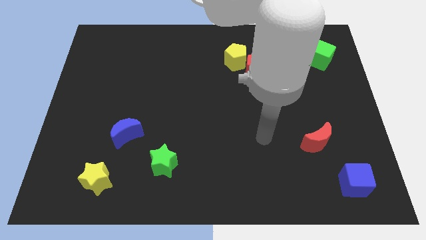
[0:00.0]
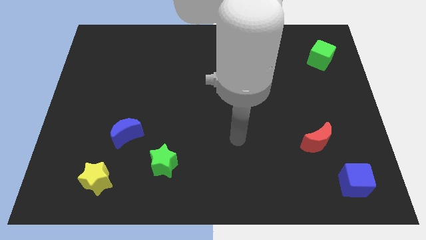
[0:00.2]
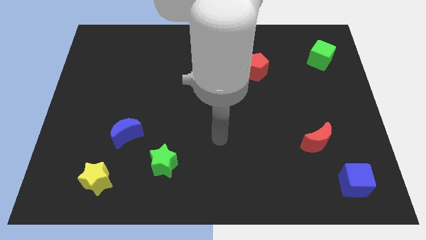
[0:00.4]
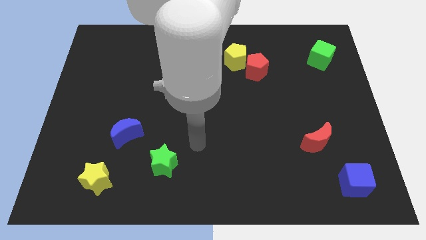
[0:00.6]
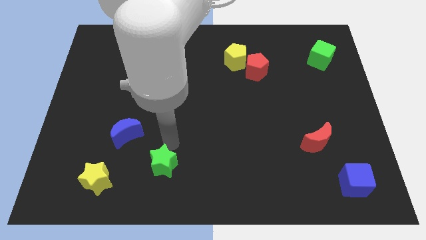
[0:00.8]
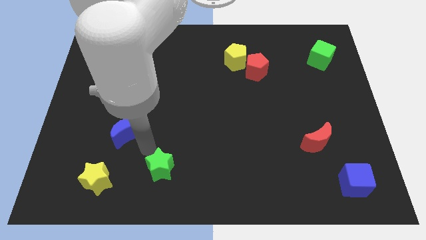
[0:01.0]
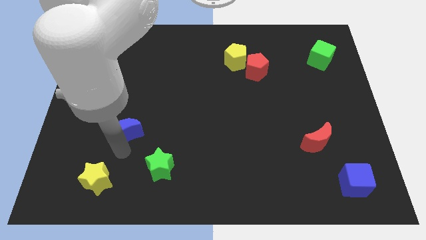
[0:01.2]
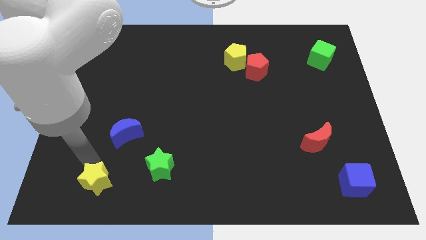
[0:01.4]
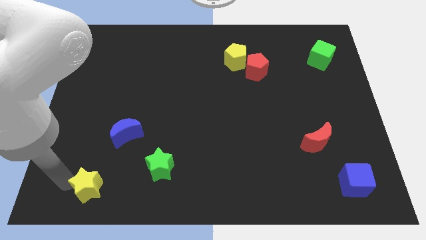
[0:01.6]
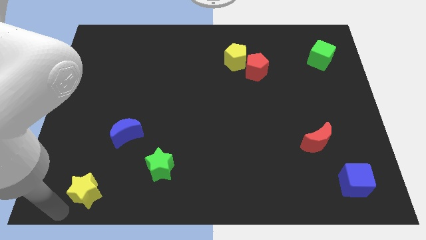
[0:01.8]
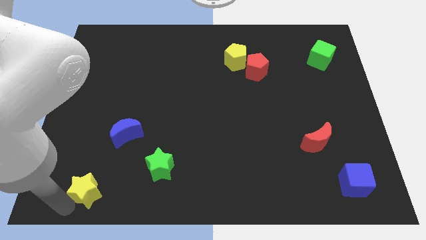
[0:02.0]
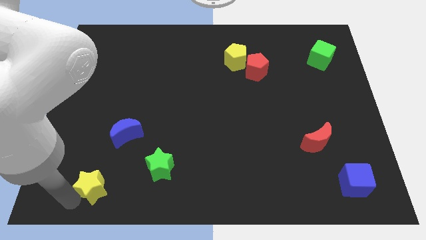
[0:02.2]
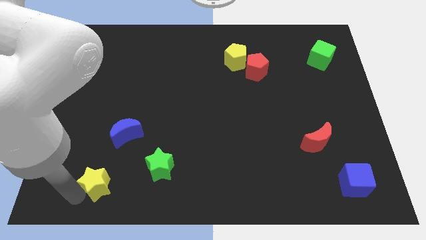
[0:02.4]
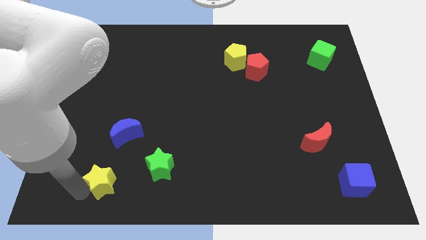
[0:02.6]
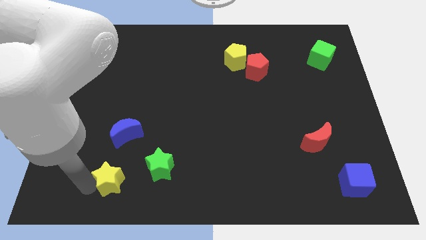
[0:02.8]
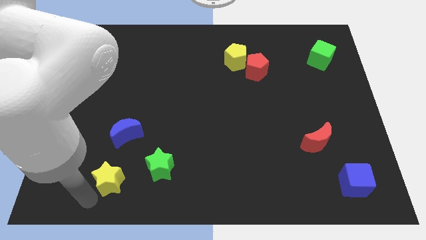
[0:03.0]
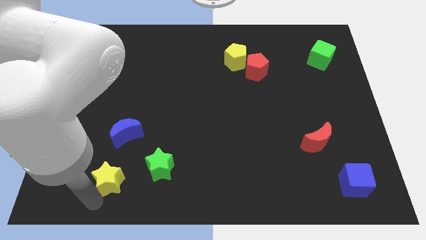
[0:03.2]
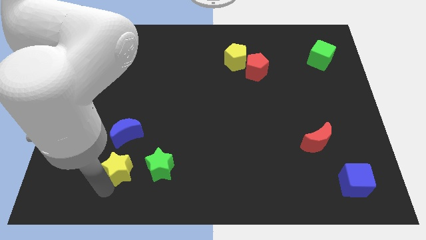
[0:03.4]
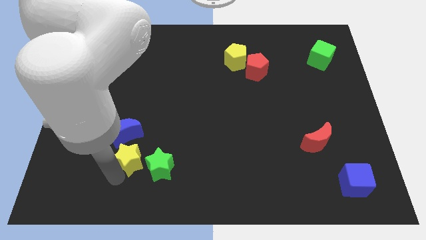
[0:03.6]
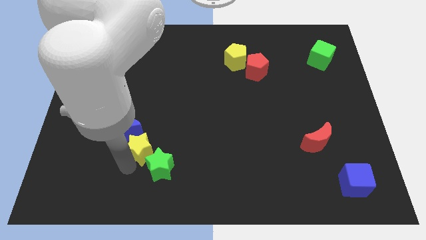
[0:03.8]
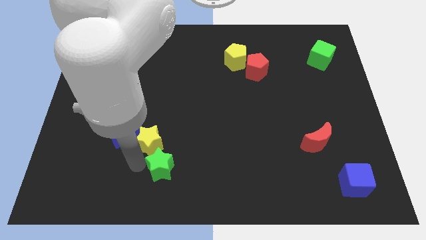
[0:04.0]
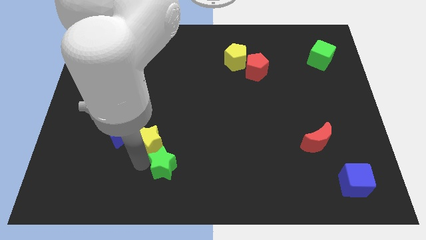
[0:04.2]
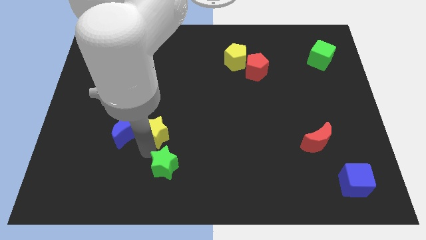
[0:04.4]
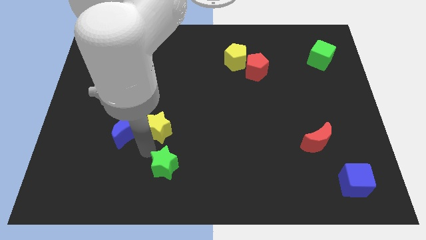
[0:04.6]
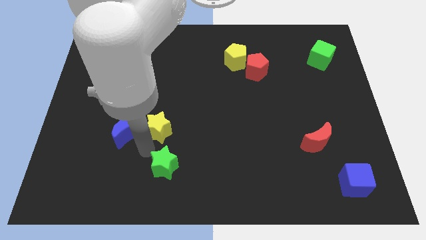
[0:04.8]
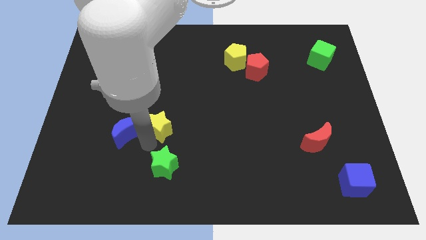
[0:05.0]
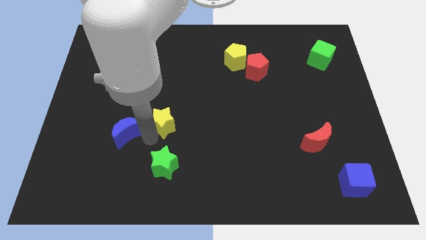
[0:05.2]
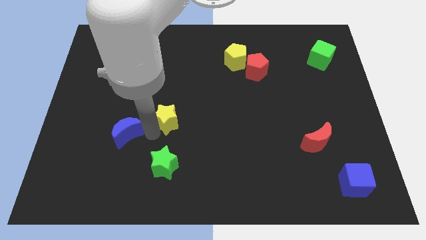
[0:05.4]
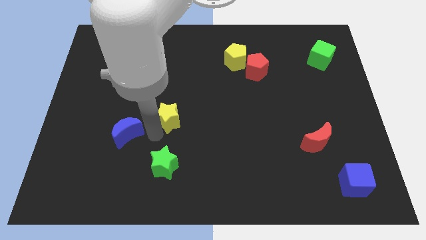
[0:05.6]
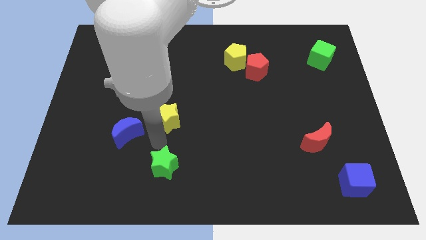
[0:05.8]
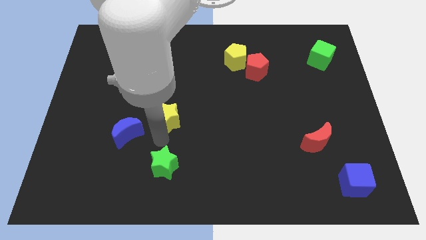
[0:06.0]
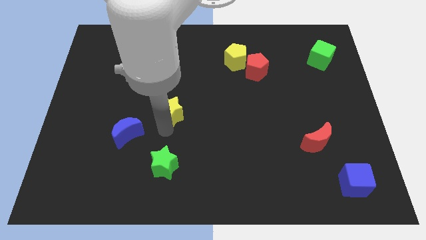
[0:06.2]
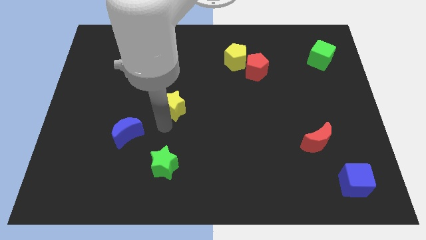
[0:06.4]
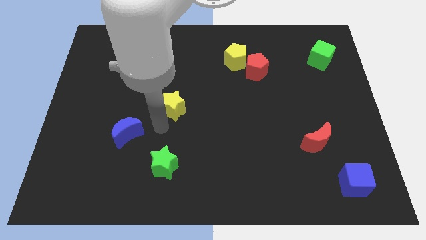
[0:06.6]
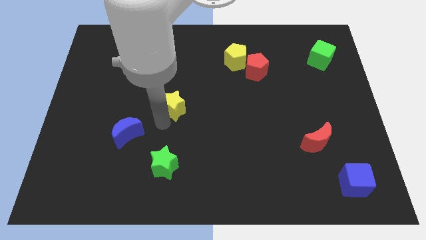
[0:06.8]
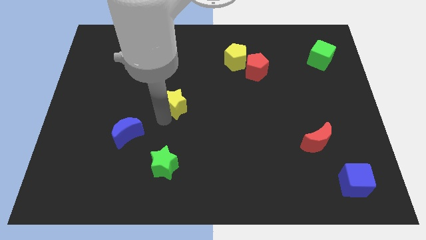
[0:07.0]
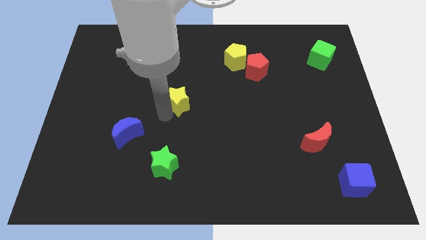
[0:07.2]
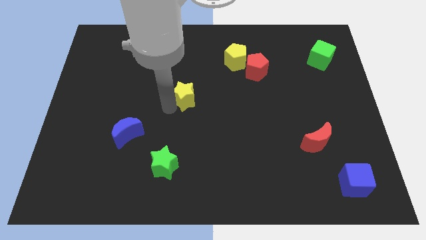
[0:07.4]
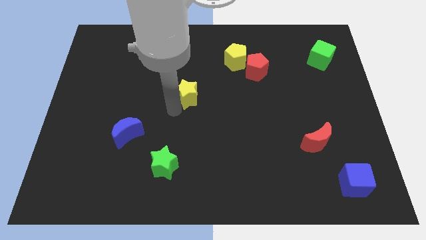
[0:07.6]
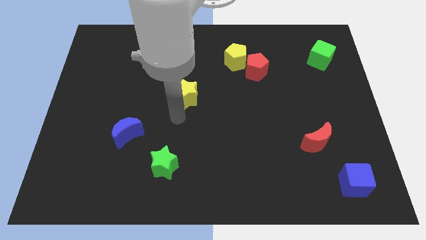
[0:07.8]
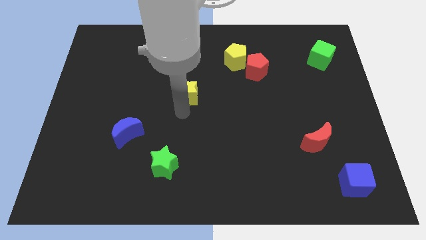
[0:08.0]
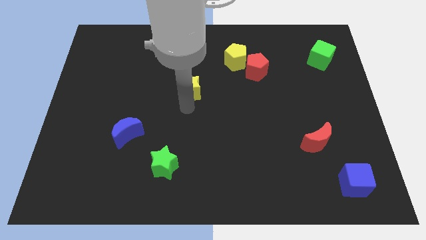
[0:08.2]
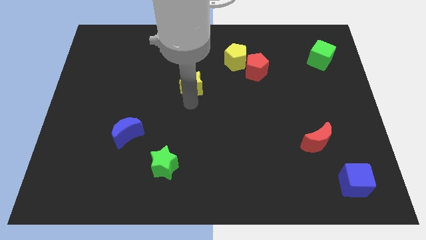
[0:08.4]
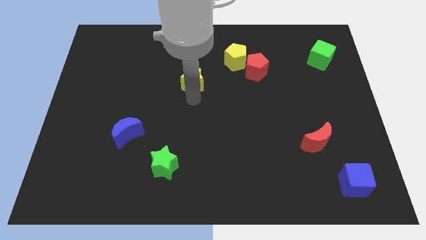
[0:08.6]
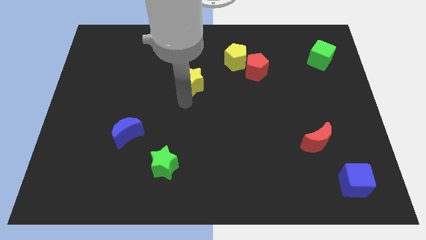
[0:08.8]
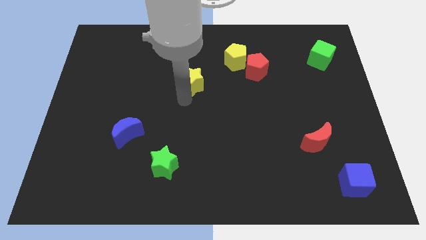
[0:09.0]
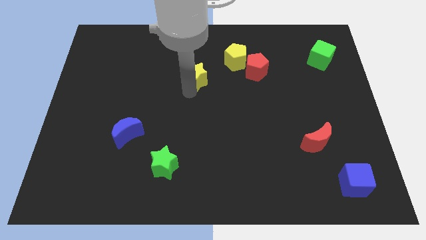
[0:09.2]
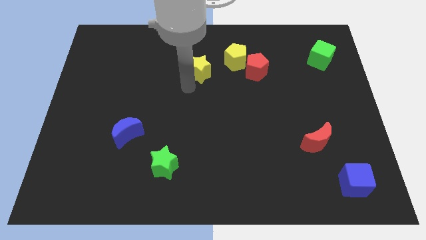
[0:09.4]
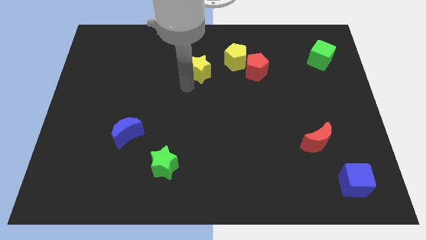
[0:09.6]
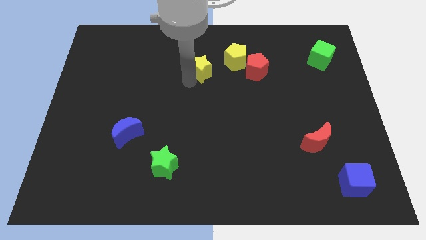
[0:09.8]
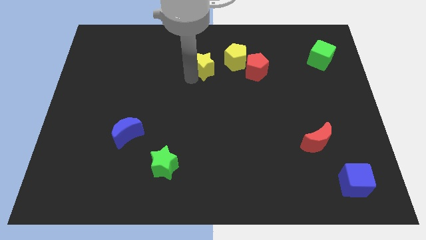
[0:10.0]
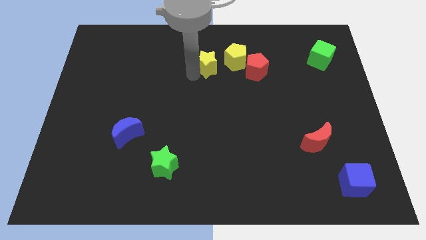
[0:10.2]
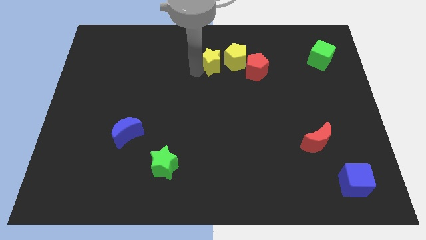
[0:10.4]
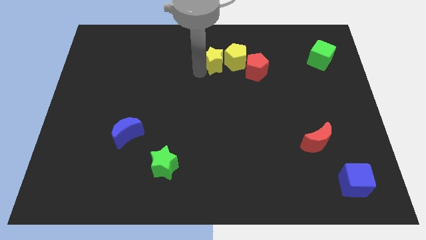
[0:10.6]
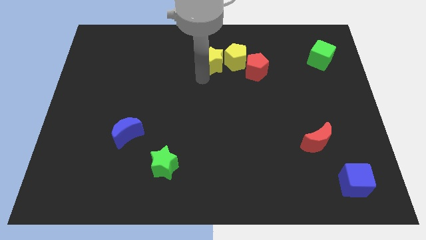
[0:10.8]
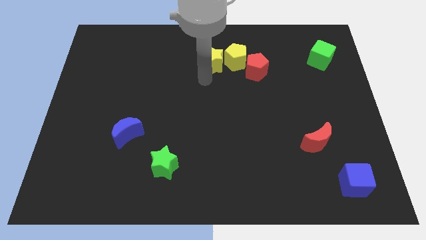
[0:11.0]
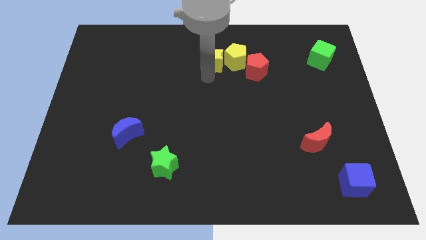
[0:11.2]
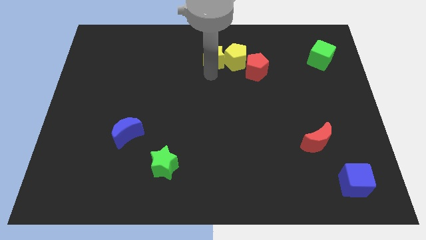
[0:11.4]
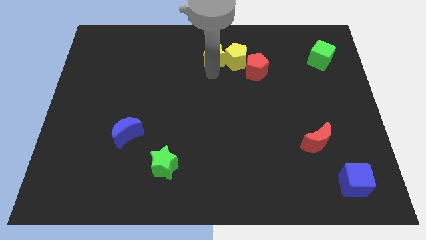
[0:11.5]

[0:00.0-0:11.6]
push the yellow star diagonally up and to the left of the red pentagon

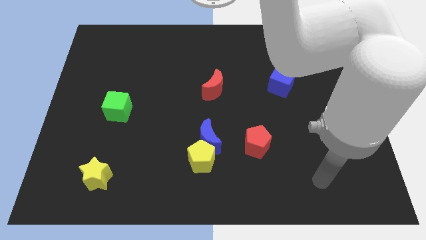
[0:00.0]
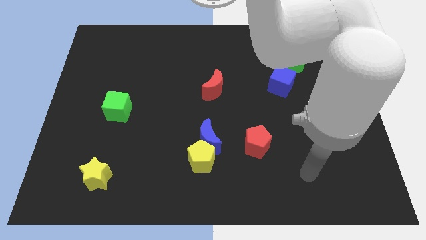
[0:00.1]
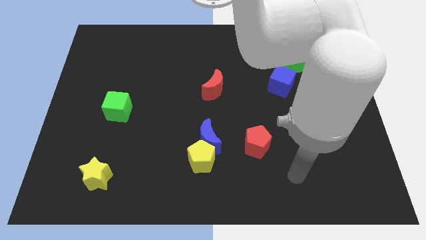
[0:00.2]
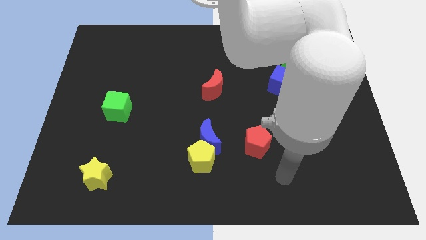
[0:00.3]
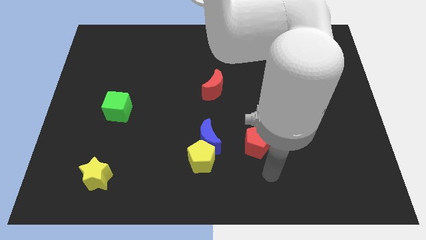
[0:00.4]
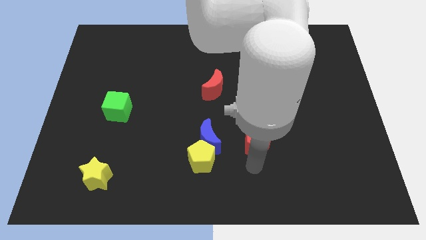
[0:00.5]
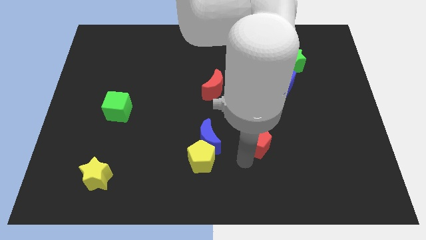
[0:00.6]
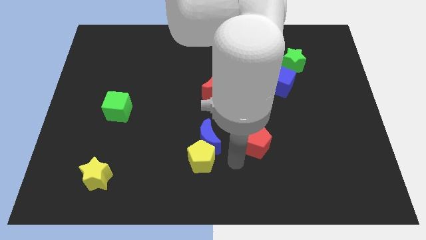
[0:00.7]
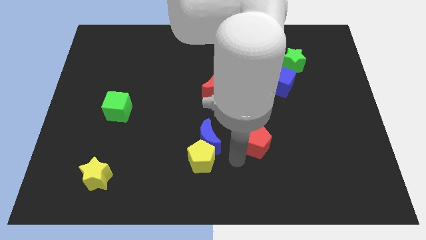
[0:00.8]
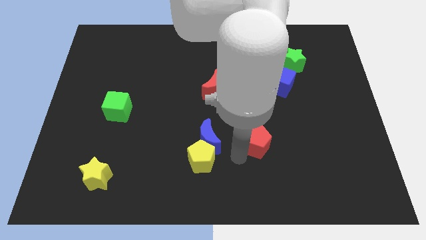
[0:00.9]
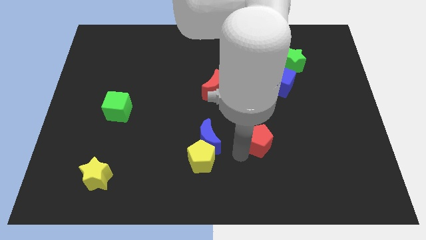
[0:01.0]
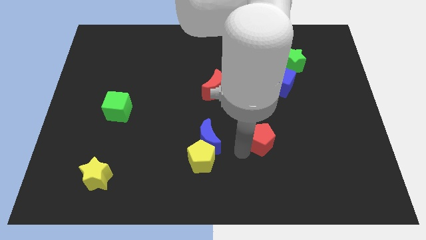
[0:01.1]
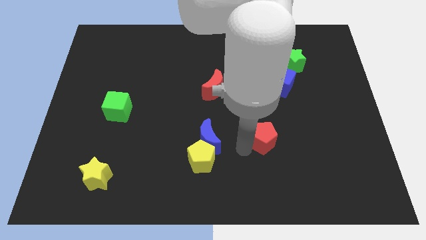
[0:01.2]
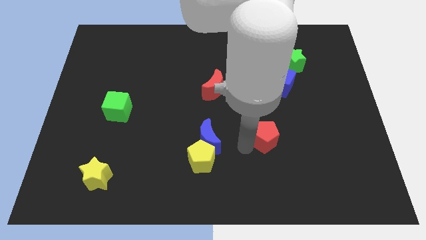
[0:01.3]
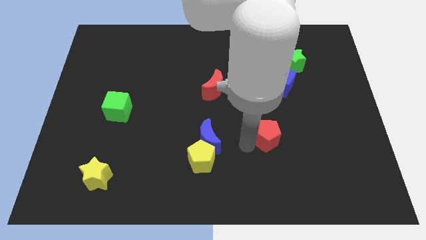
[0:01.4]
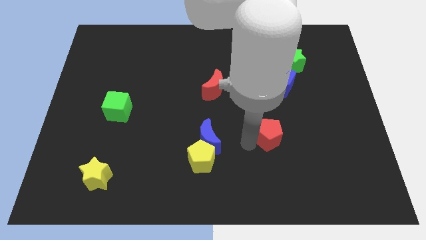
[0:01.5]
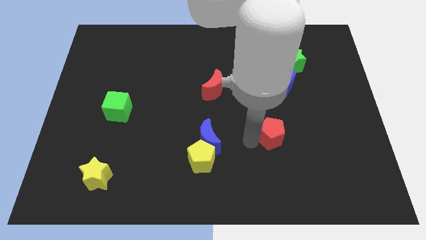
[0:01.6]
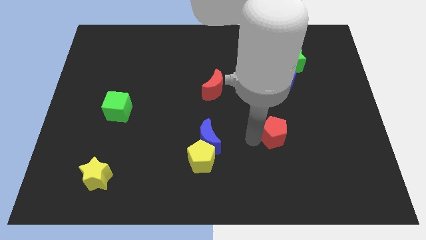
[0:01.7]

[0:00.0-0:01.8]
move the red pentagon to the bottom side of the blue cube

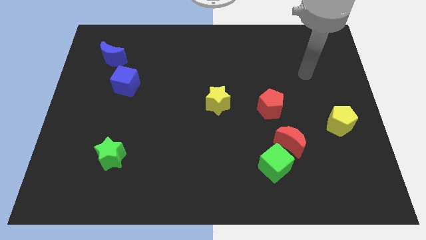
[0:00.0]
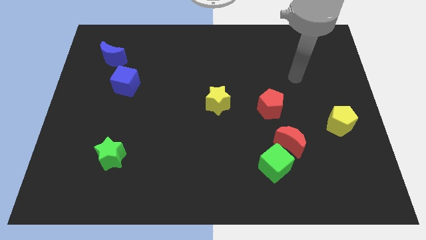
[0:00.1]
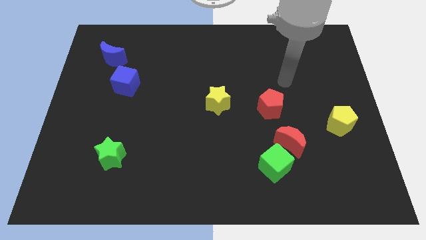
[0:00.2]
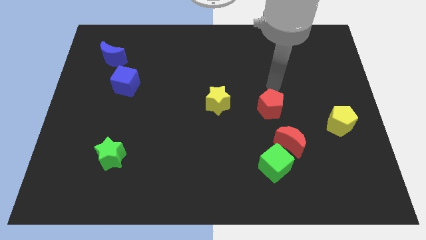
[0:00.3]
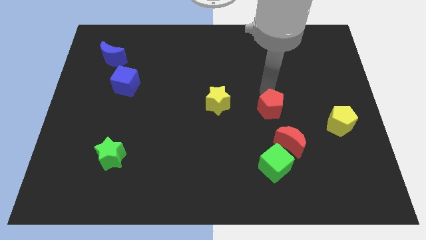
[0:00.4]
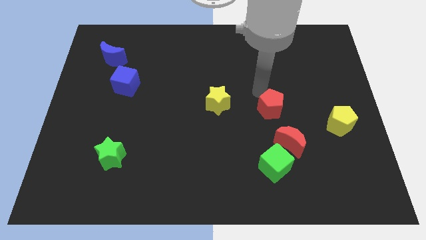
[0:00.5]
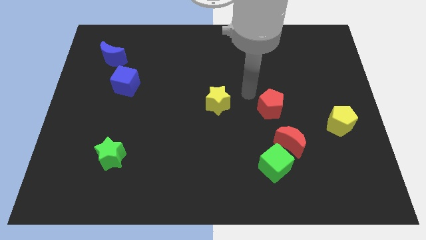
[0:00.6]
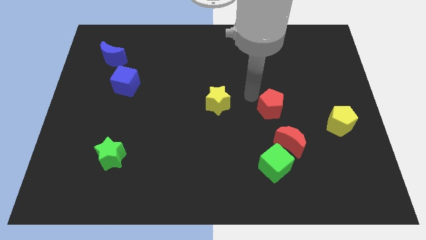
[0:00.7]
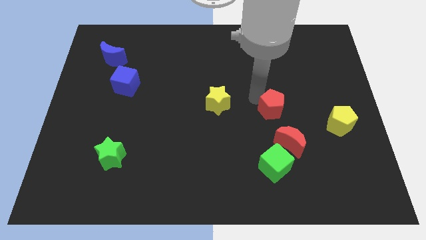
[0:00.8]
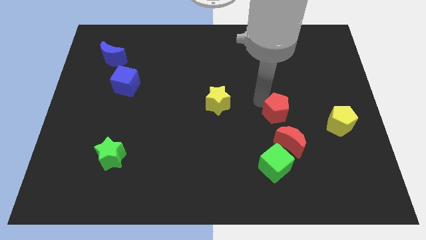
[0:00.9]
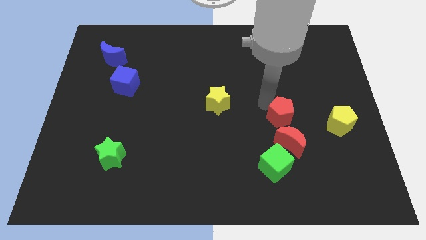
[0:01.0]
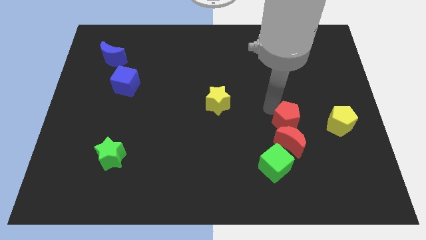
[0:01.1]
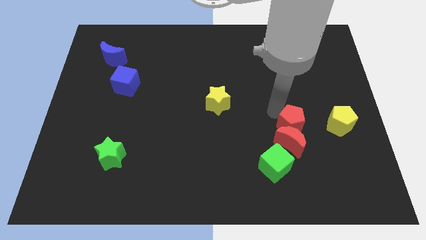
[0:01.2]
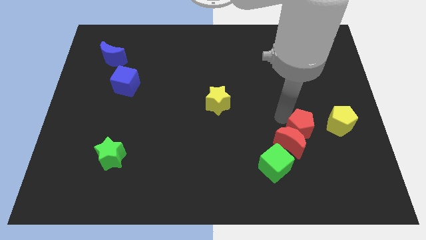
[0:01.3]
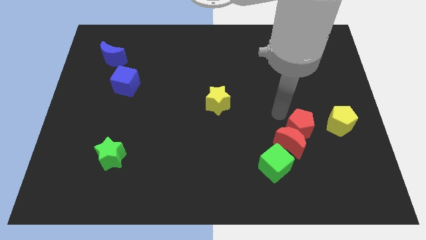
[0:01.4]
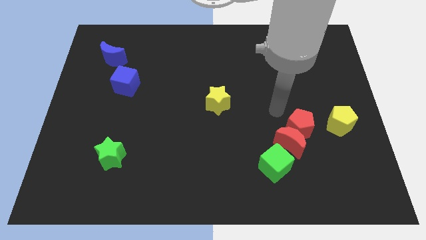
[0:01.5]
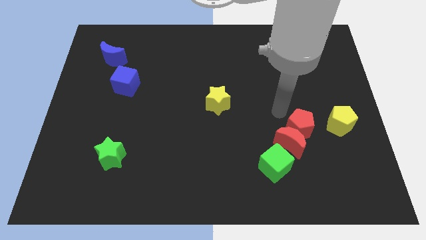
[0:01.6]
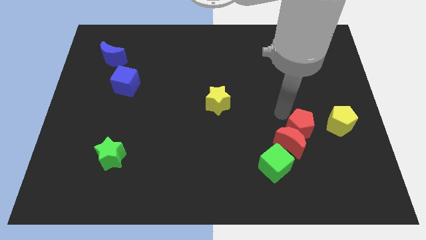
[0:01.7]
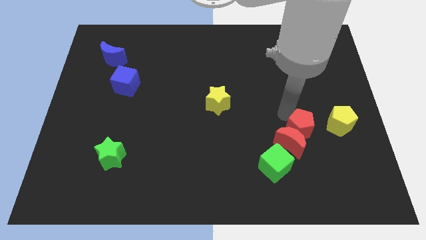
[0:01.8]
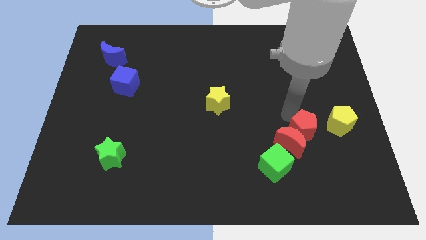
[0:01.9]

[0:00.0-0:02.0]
put the red pentagon to the bottom left side of the yellow pentagon
